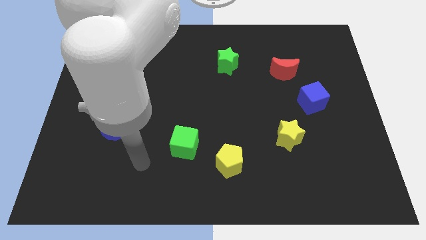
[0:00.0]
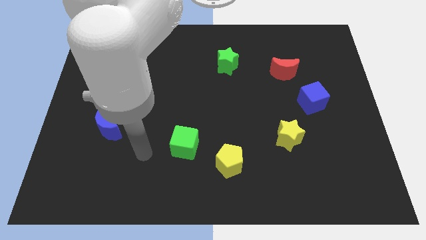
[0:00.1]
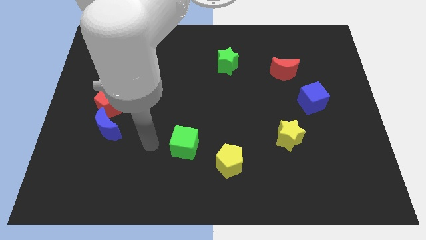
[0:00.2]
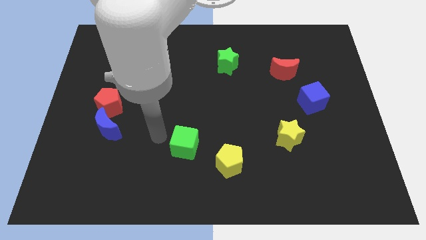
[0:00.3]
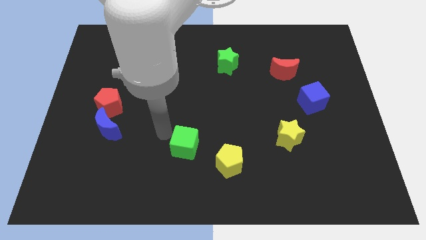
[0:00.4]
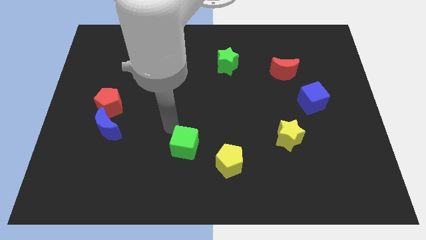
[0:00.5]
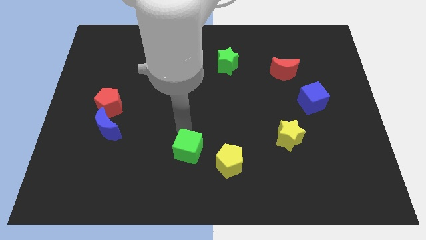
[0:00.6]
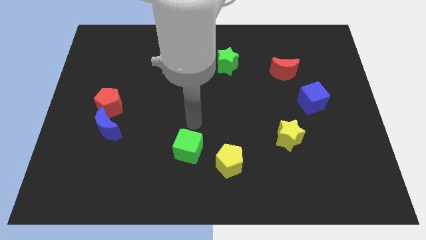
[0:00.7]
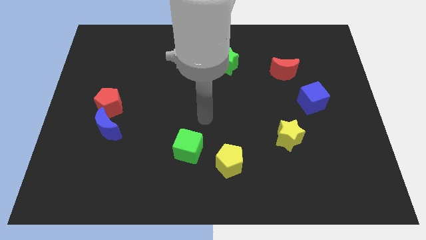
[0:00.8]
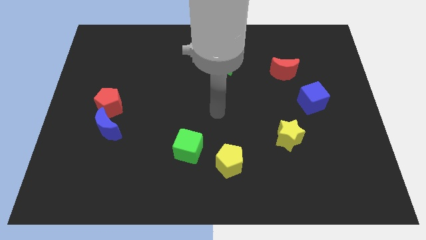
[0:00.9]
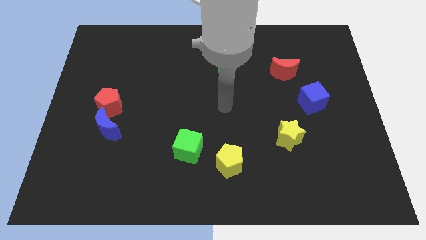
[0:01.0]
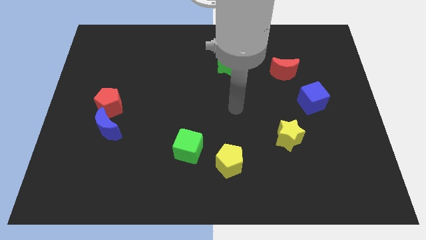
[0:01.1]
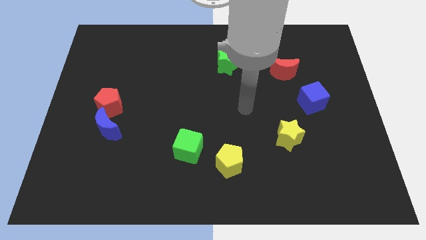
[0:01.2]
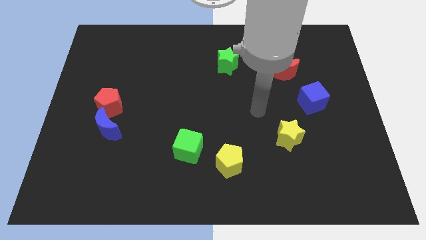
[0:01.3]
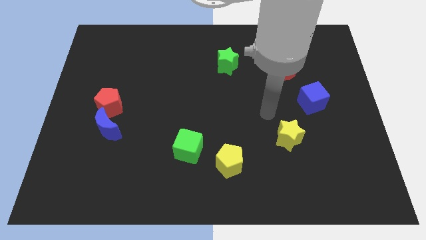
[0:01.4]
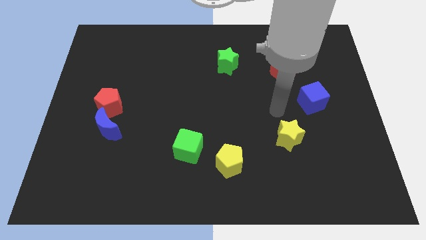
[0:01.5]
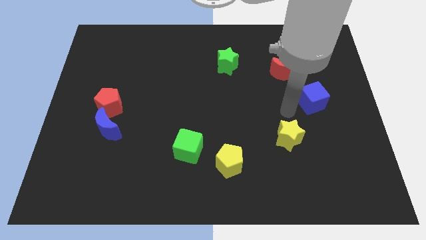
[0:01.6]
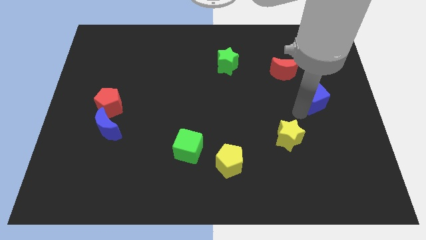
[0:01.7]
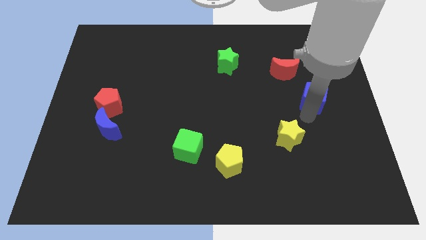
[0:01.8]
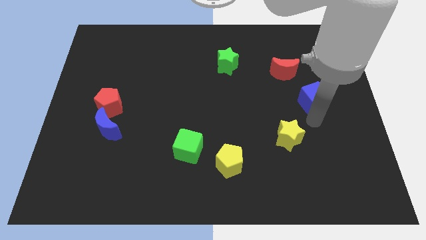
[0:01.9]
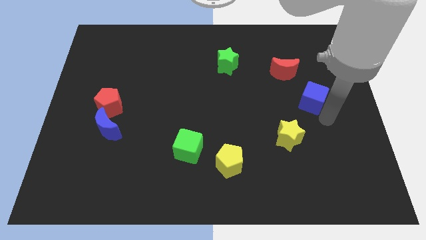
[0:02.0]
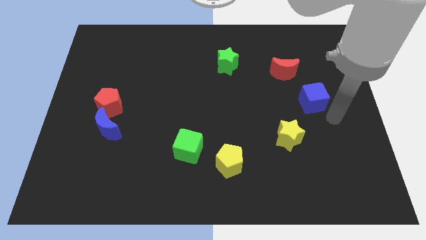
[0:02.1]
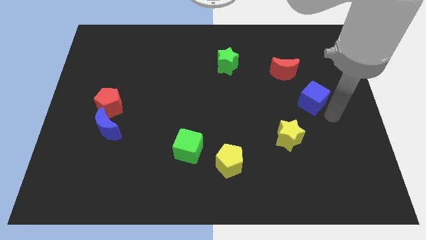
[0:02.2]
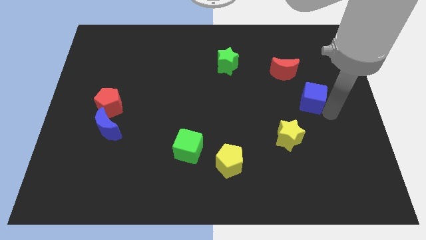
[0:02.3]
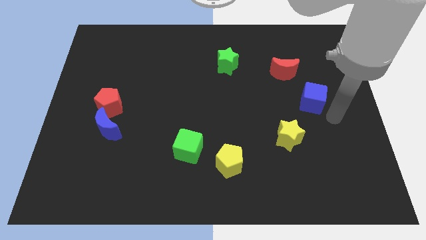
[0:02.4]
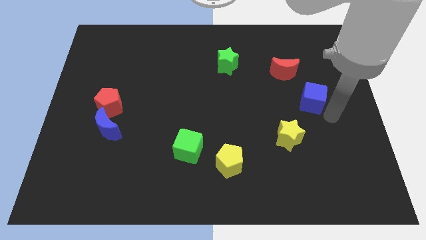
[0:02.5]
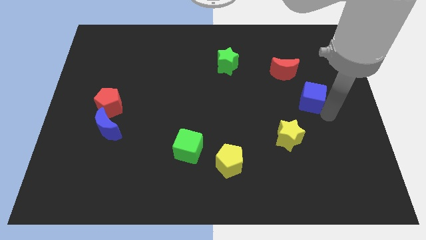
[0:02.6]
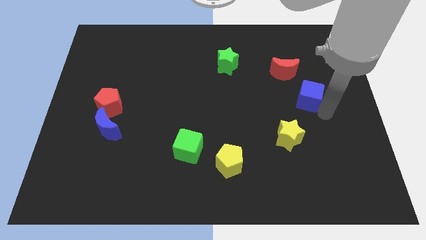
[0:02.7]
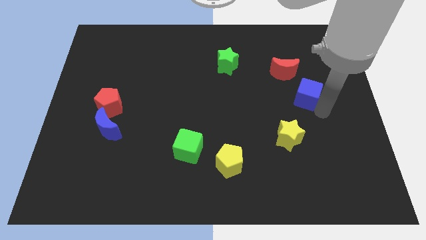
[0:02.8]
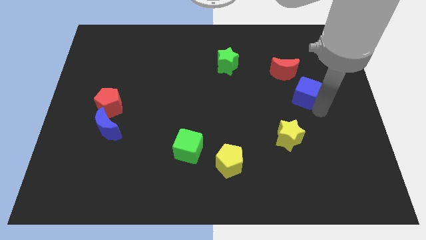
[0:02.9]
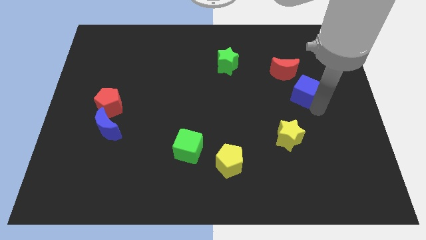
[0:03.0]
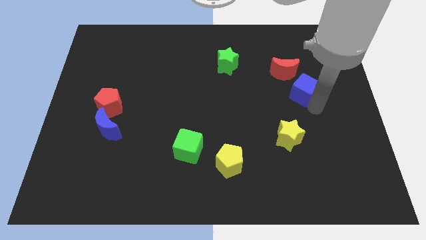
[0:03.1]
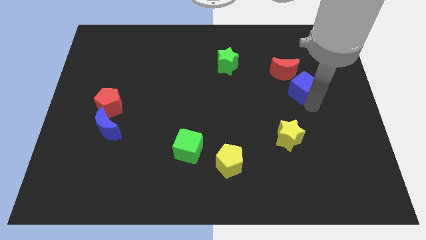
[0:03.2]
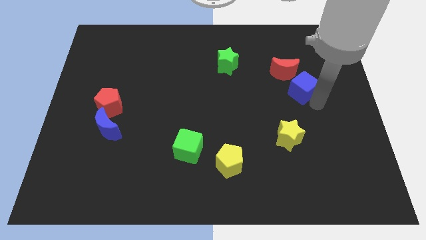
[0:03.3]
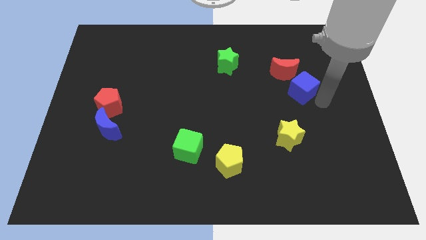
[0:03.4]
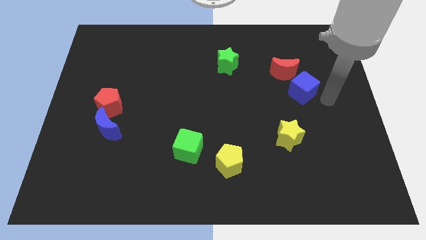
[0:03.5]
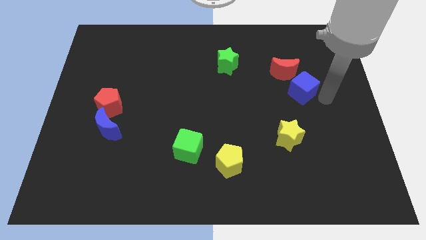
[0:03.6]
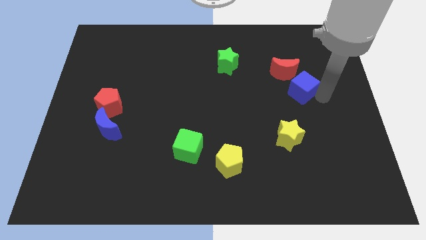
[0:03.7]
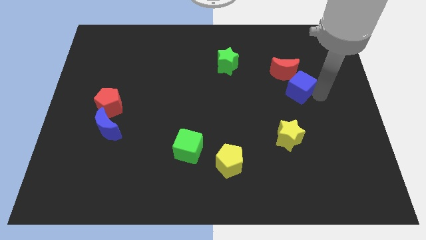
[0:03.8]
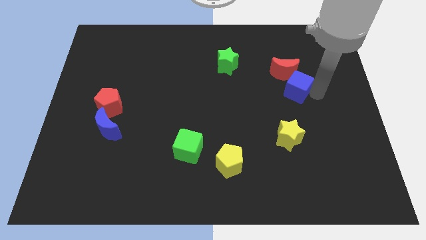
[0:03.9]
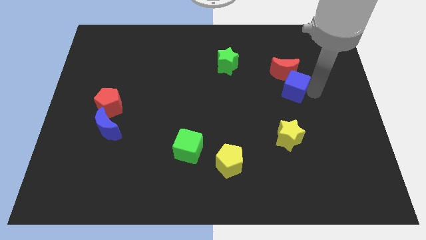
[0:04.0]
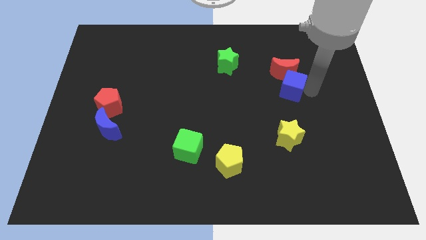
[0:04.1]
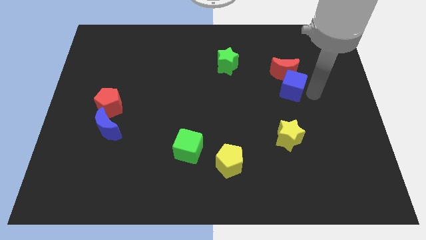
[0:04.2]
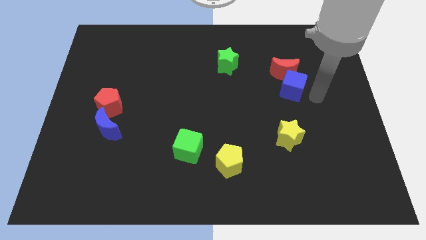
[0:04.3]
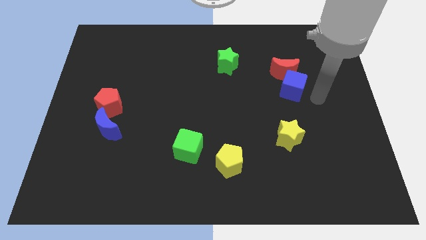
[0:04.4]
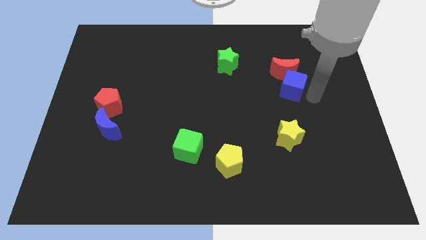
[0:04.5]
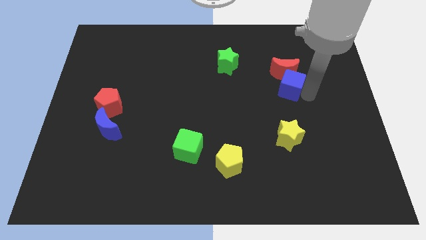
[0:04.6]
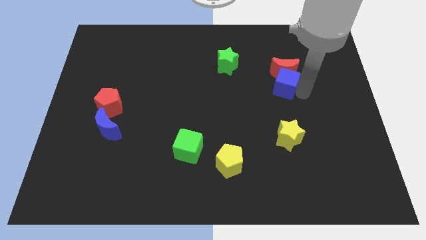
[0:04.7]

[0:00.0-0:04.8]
push the blue cube up and to the left diagonally a bit

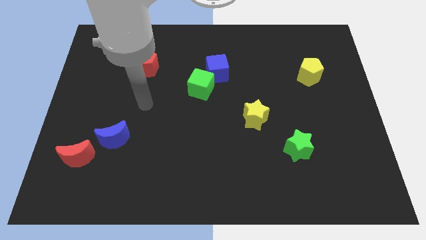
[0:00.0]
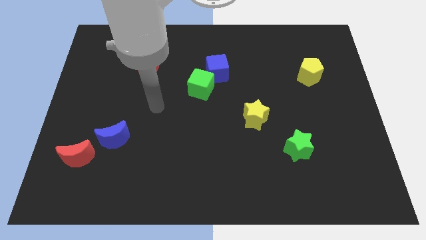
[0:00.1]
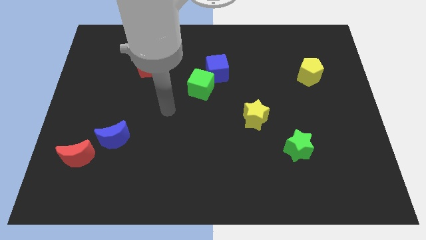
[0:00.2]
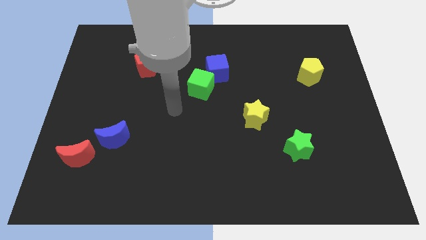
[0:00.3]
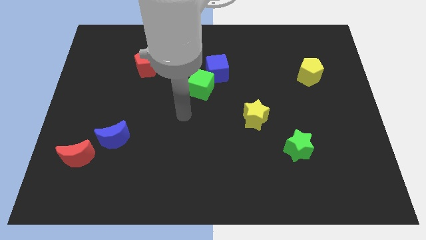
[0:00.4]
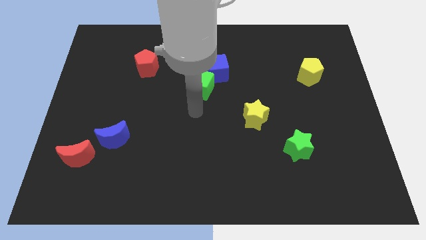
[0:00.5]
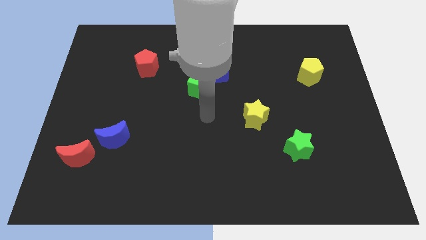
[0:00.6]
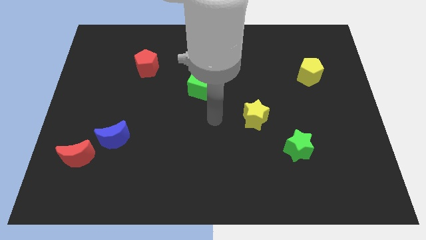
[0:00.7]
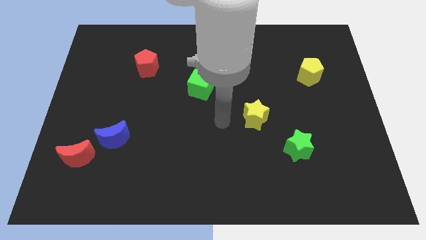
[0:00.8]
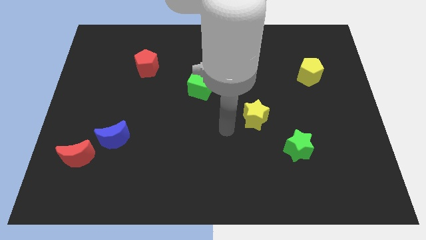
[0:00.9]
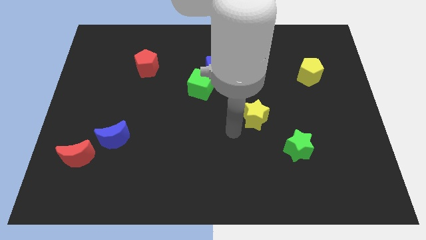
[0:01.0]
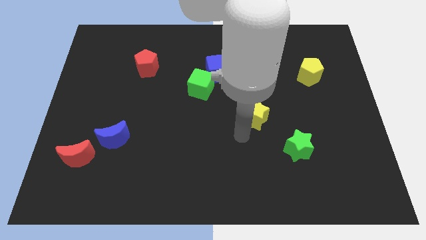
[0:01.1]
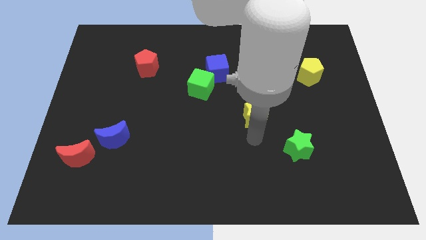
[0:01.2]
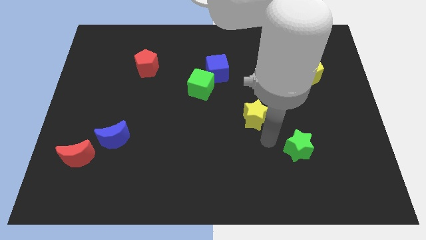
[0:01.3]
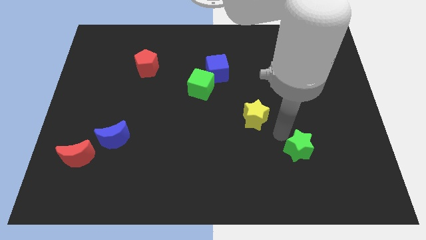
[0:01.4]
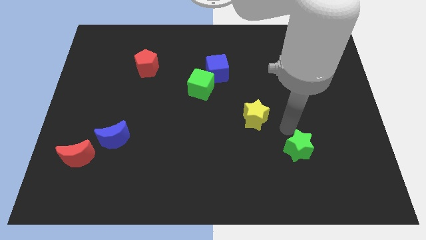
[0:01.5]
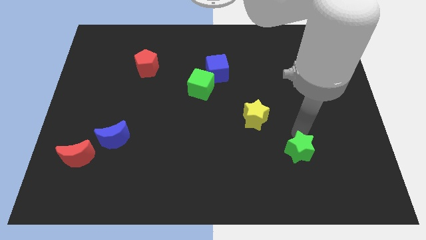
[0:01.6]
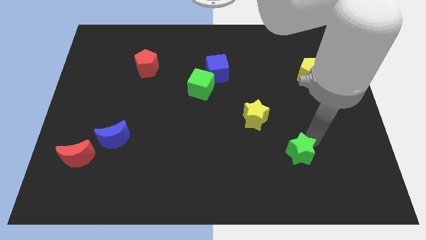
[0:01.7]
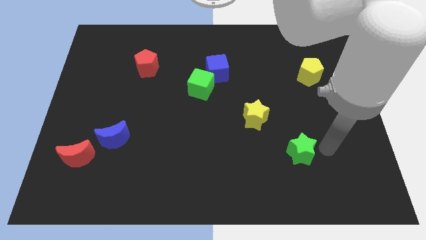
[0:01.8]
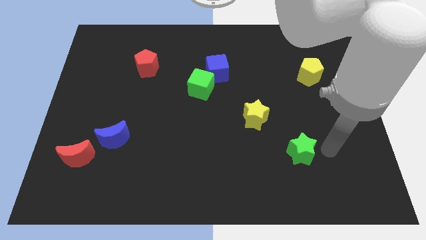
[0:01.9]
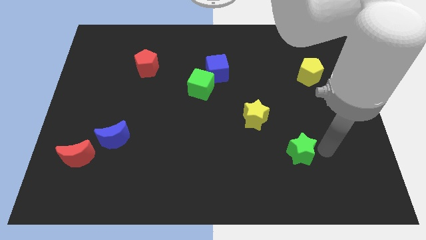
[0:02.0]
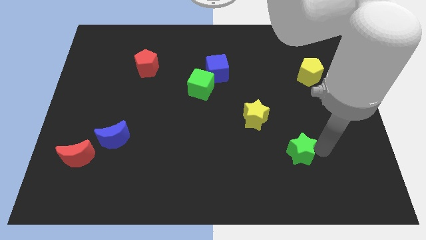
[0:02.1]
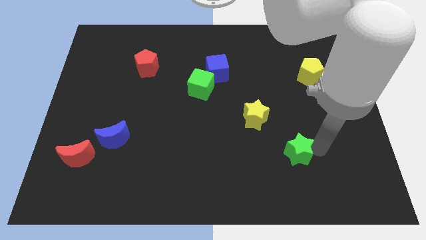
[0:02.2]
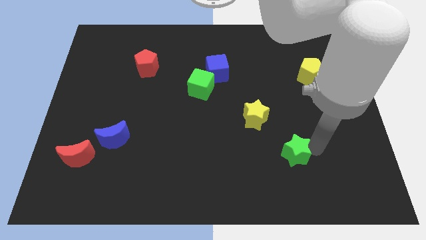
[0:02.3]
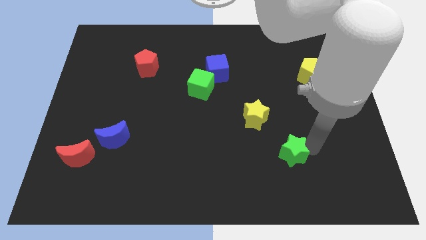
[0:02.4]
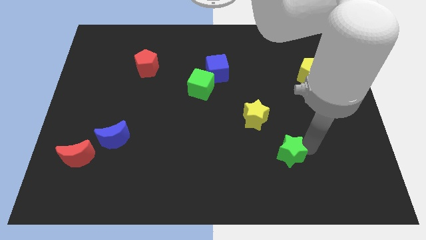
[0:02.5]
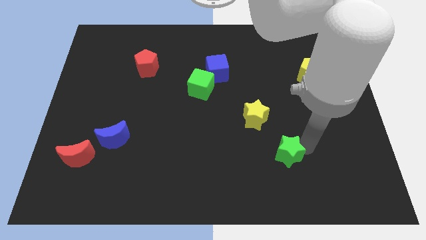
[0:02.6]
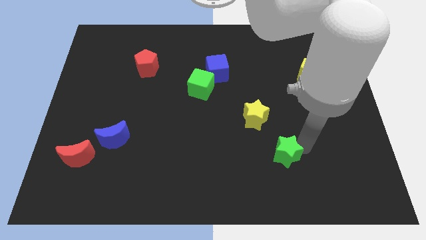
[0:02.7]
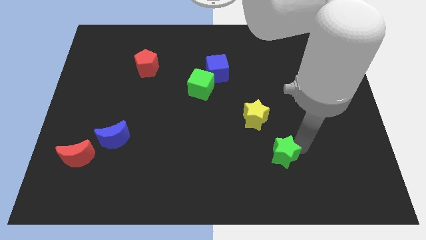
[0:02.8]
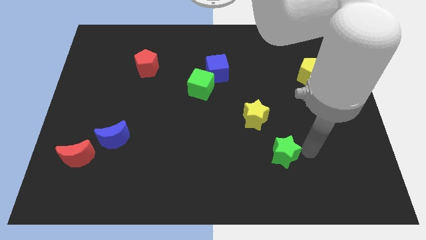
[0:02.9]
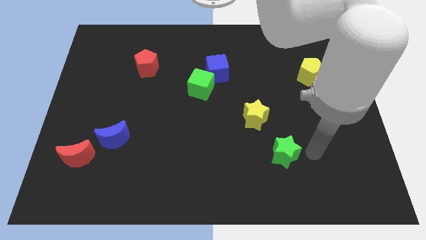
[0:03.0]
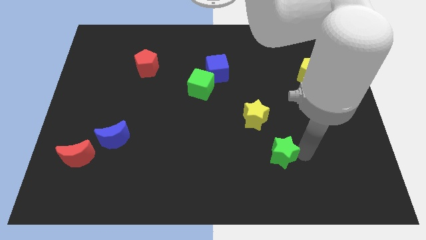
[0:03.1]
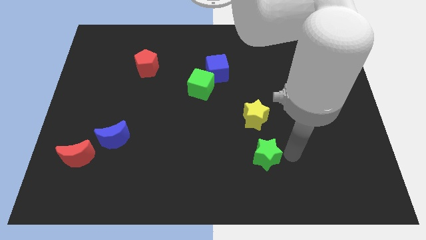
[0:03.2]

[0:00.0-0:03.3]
move the green star somewhat left
